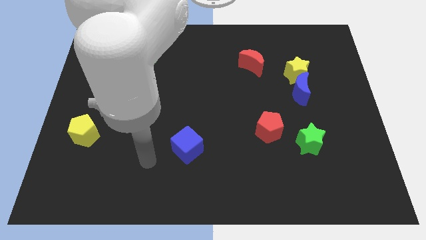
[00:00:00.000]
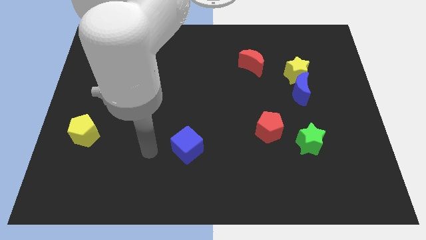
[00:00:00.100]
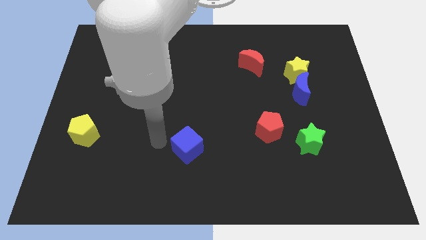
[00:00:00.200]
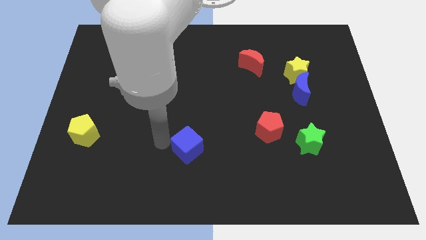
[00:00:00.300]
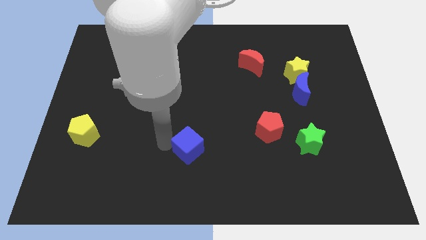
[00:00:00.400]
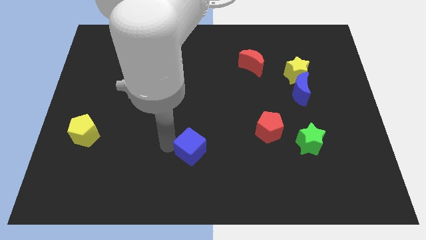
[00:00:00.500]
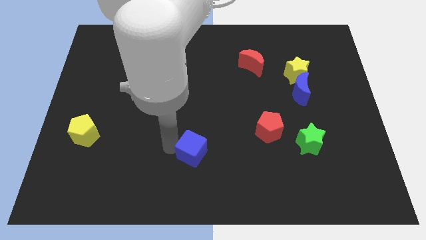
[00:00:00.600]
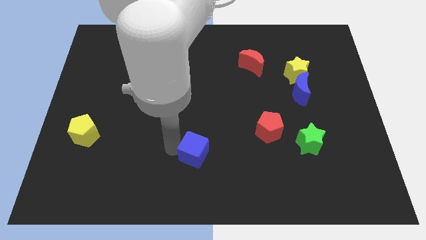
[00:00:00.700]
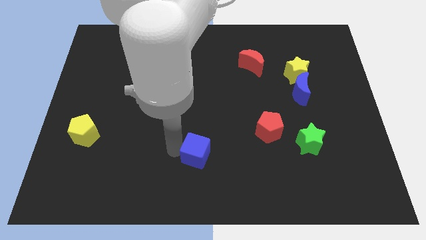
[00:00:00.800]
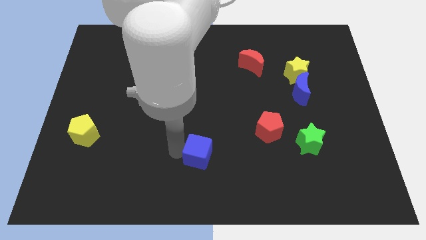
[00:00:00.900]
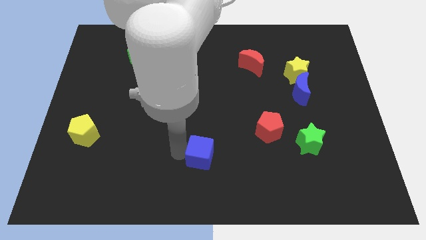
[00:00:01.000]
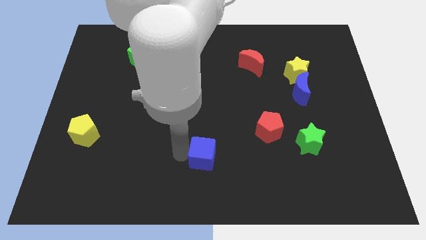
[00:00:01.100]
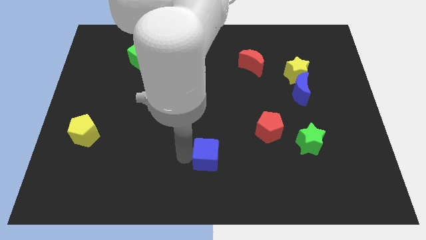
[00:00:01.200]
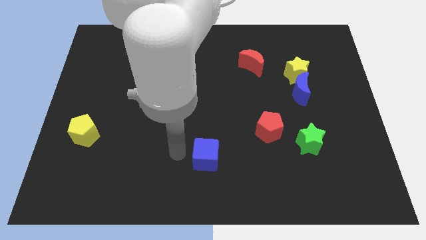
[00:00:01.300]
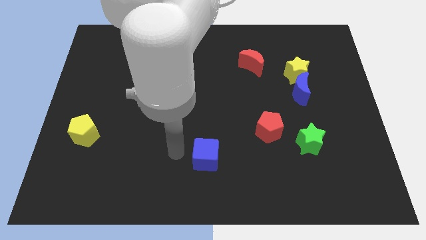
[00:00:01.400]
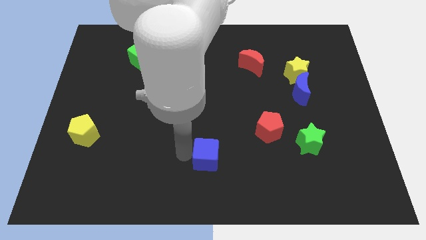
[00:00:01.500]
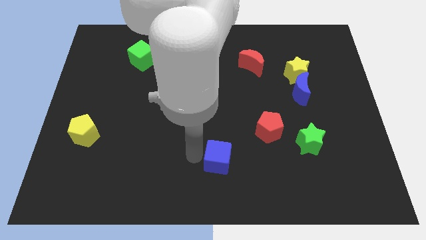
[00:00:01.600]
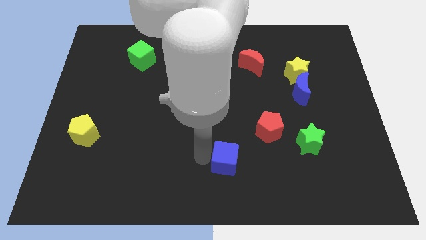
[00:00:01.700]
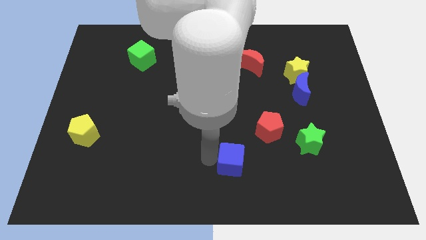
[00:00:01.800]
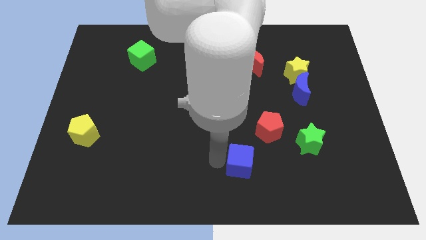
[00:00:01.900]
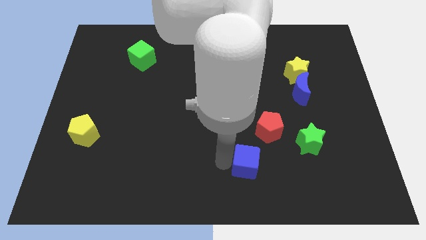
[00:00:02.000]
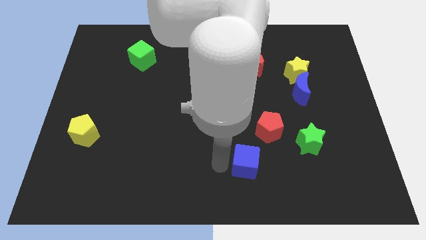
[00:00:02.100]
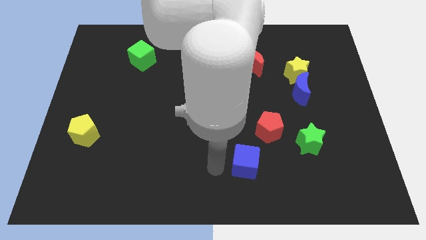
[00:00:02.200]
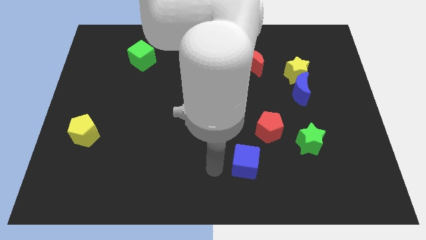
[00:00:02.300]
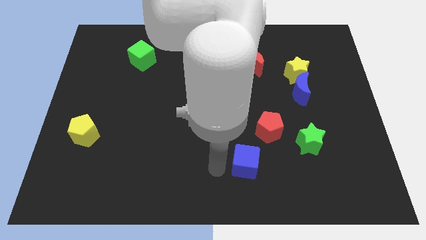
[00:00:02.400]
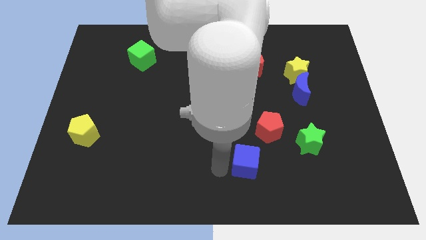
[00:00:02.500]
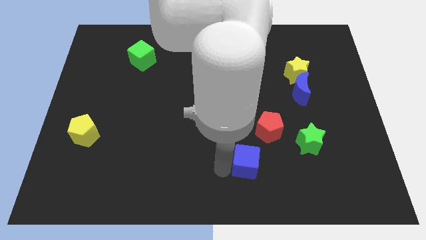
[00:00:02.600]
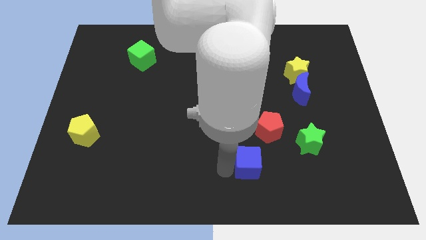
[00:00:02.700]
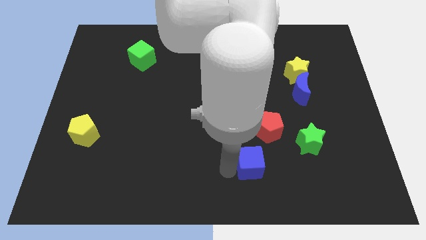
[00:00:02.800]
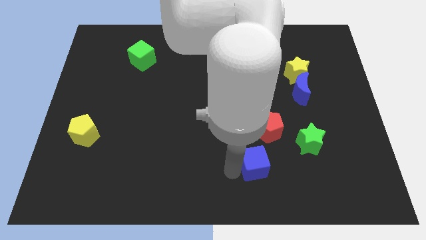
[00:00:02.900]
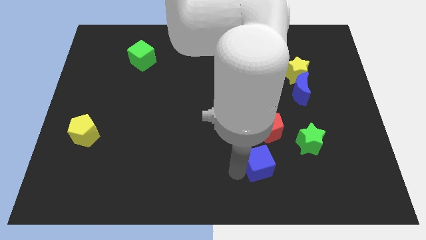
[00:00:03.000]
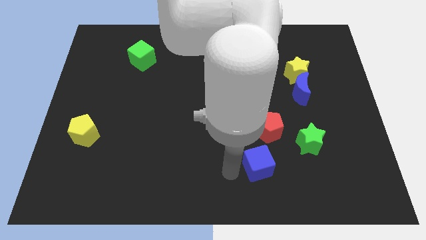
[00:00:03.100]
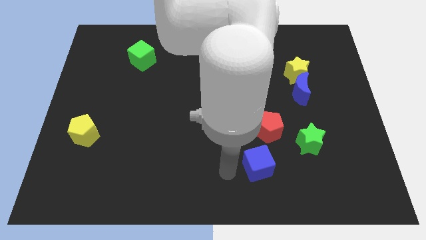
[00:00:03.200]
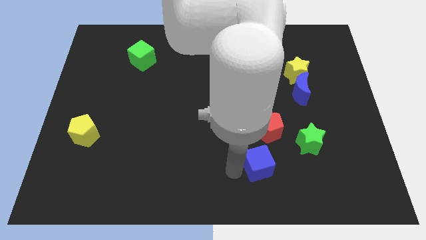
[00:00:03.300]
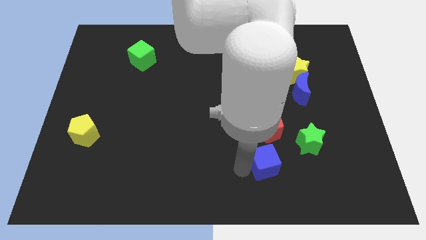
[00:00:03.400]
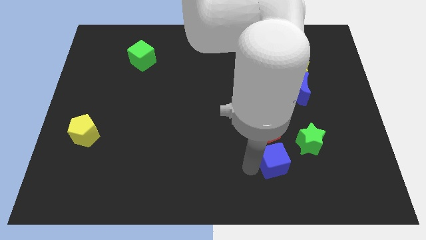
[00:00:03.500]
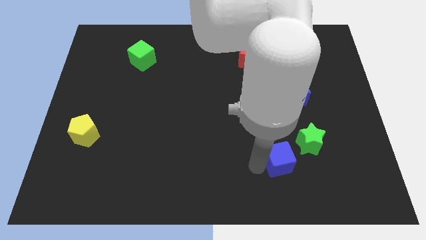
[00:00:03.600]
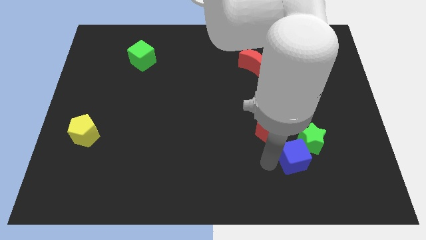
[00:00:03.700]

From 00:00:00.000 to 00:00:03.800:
push the blue cube to the right

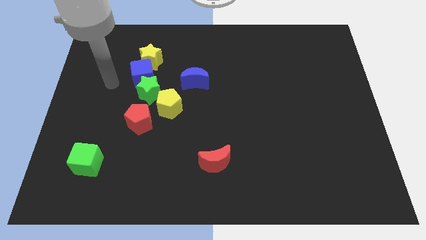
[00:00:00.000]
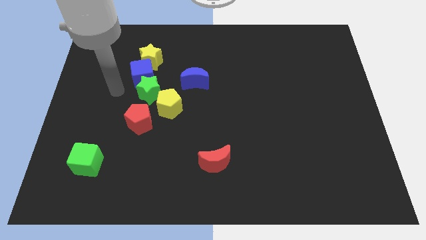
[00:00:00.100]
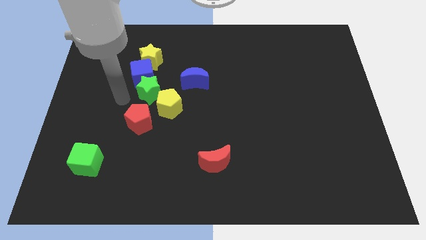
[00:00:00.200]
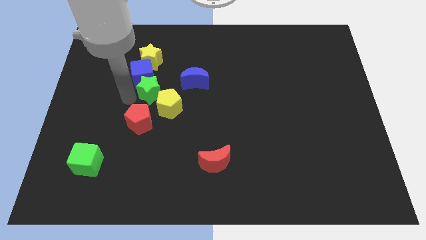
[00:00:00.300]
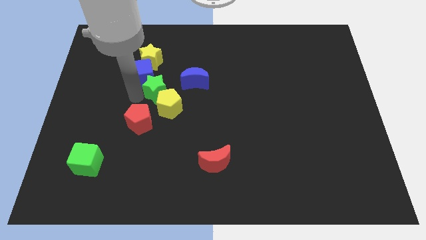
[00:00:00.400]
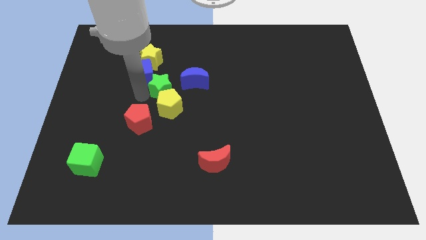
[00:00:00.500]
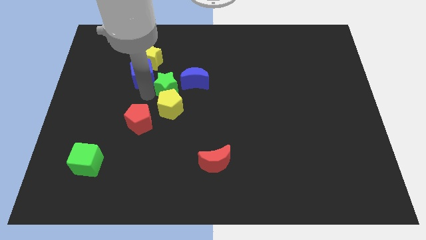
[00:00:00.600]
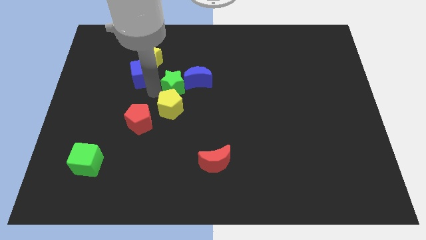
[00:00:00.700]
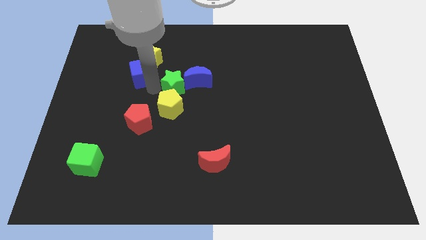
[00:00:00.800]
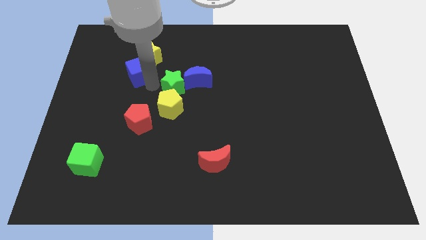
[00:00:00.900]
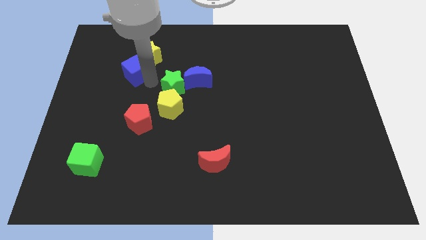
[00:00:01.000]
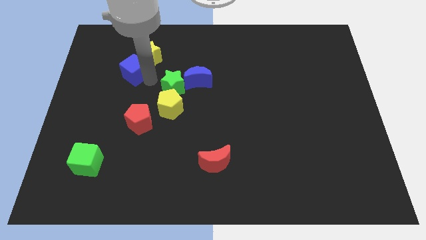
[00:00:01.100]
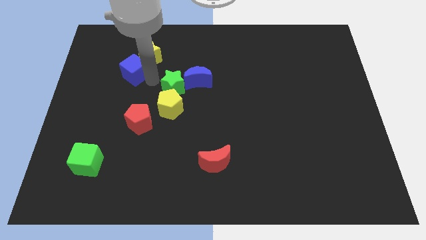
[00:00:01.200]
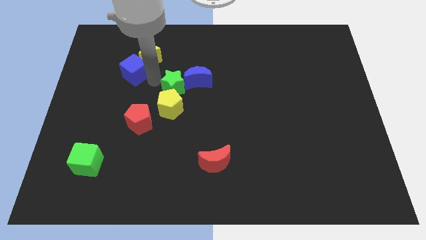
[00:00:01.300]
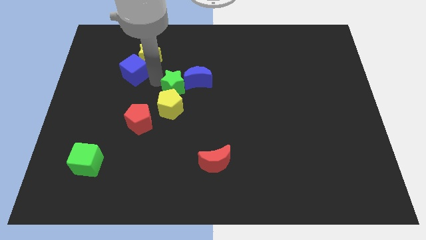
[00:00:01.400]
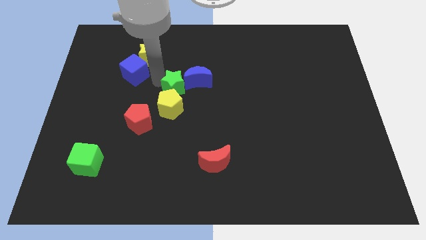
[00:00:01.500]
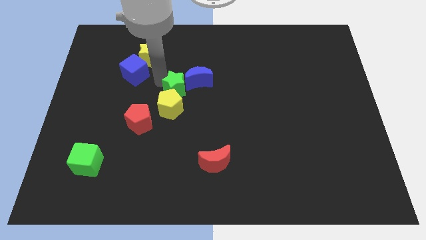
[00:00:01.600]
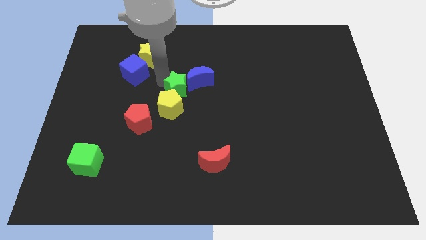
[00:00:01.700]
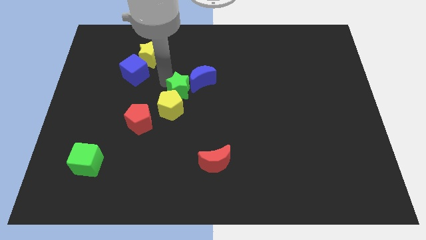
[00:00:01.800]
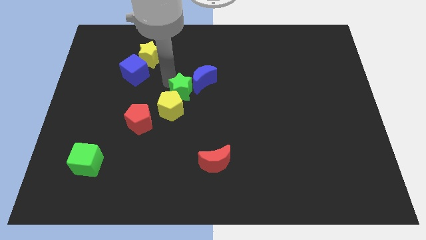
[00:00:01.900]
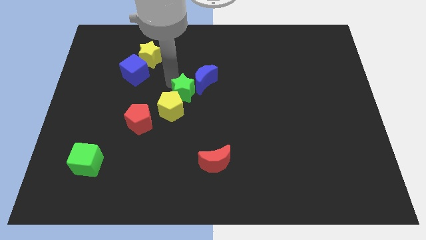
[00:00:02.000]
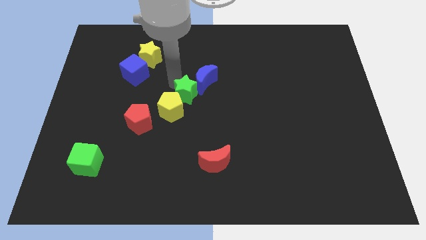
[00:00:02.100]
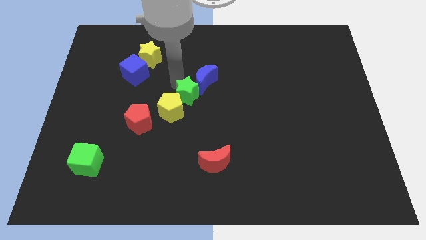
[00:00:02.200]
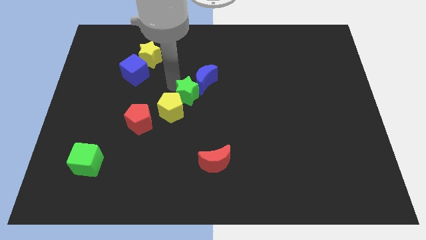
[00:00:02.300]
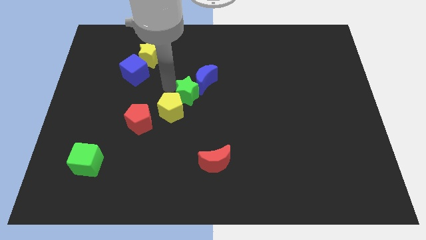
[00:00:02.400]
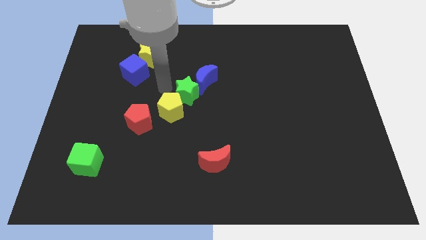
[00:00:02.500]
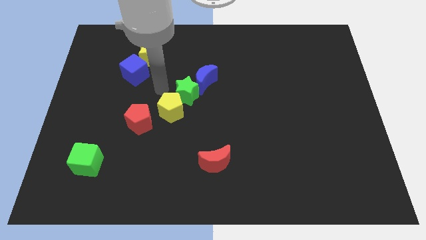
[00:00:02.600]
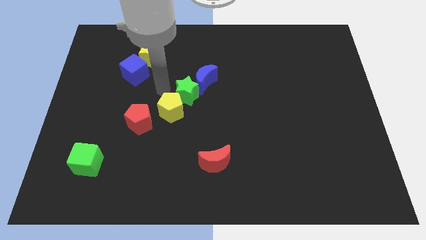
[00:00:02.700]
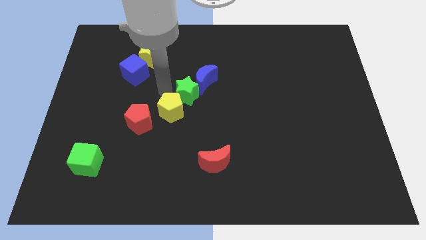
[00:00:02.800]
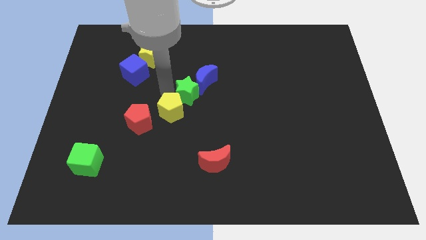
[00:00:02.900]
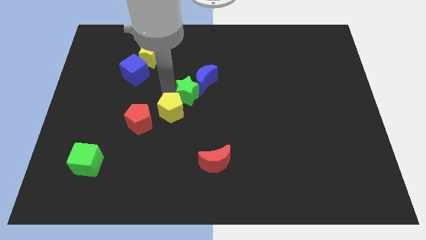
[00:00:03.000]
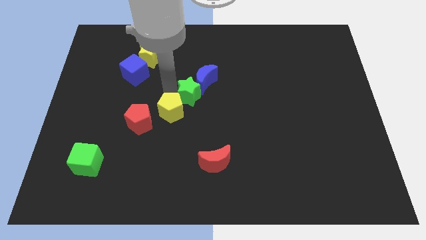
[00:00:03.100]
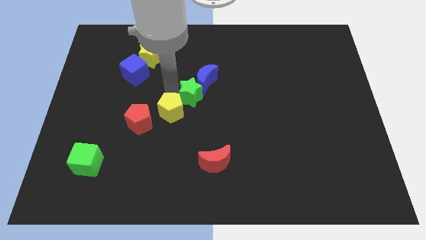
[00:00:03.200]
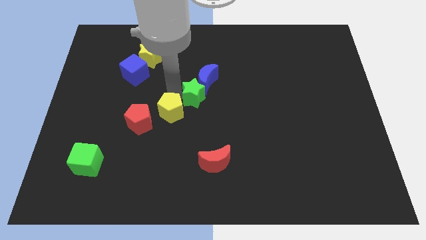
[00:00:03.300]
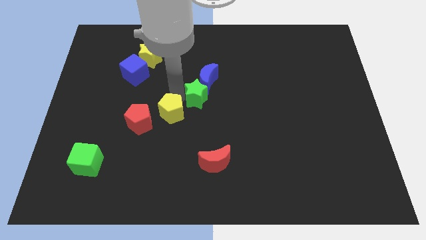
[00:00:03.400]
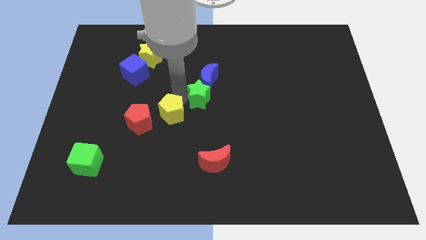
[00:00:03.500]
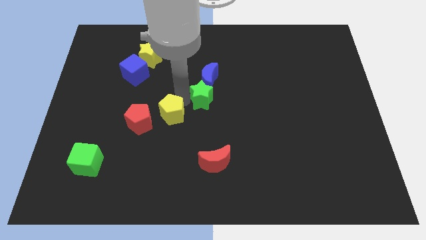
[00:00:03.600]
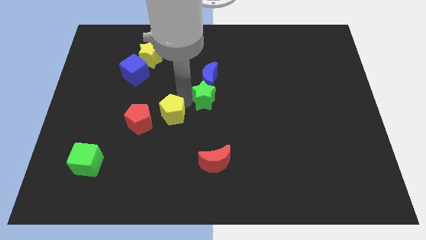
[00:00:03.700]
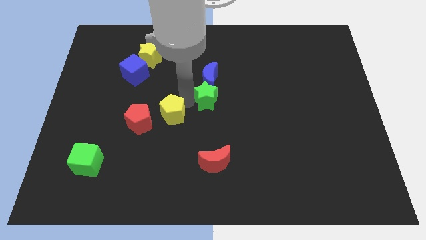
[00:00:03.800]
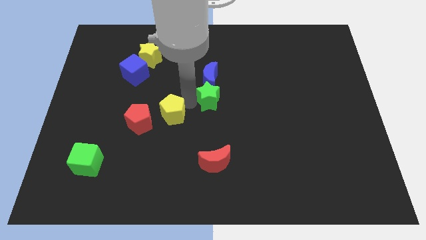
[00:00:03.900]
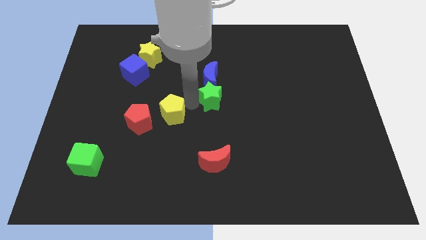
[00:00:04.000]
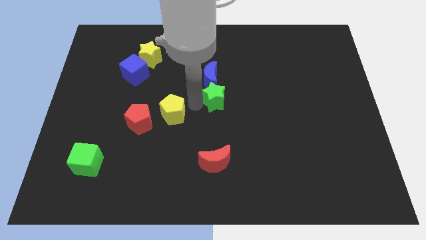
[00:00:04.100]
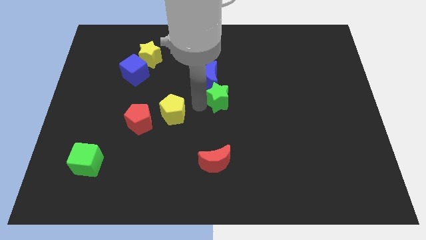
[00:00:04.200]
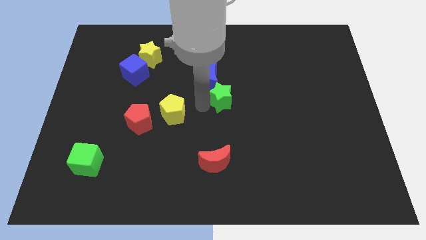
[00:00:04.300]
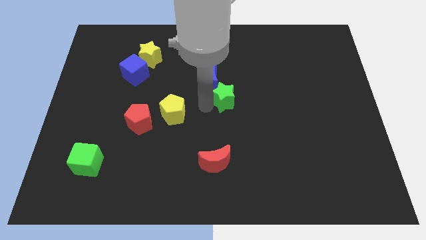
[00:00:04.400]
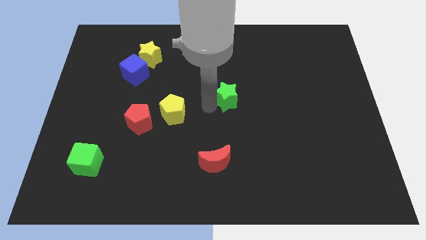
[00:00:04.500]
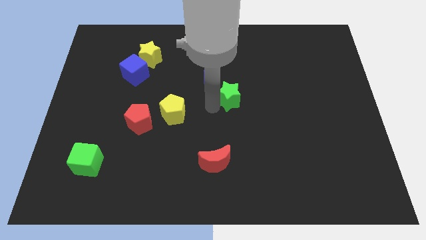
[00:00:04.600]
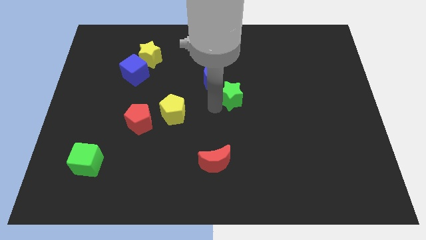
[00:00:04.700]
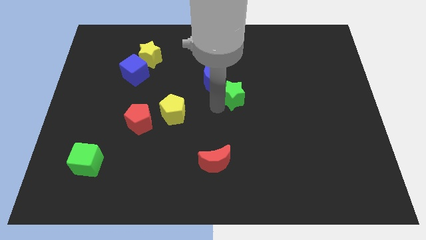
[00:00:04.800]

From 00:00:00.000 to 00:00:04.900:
slide the green star right
